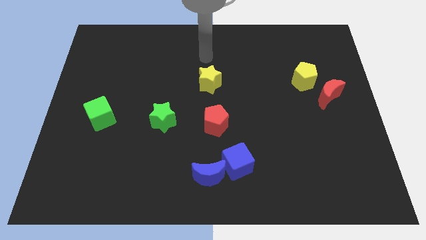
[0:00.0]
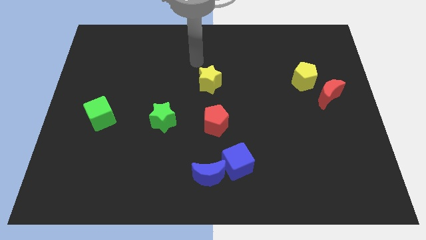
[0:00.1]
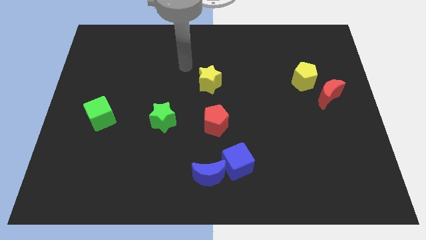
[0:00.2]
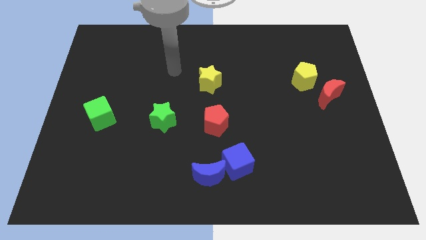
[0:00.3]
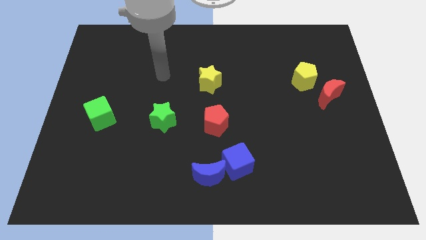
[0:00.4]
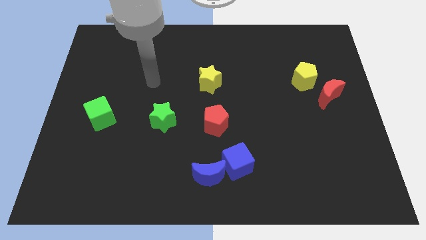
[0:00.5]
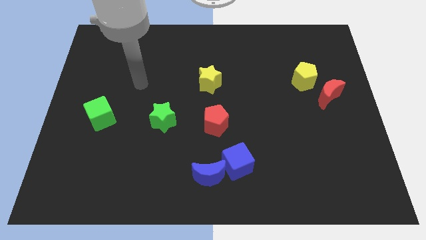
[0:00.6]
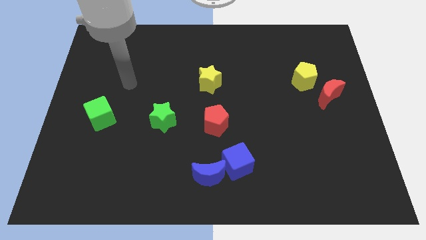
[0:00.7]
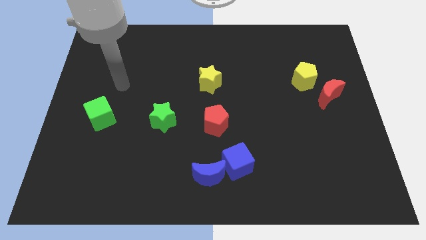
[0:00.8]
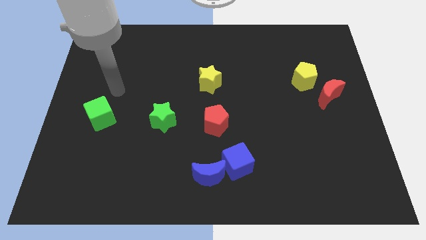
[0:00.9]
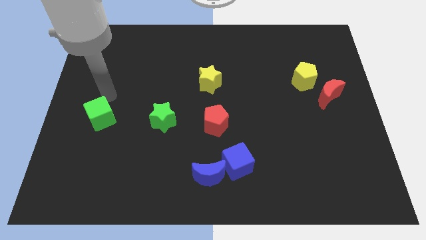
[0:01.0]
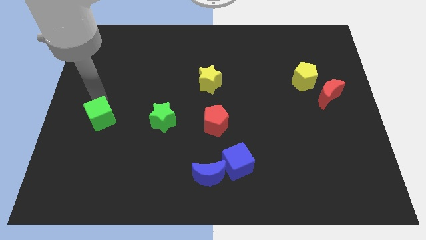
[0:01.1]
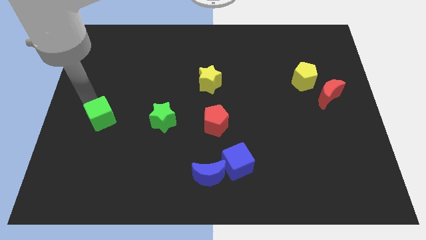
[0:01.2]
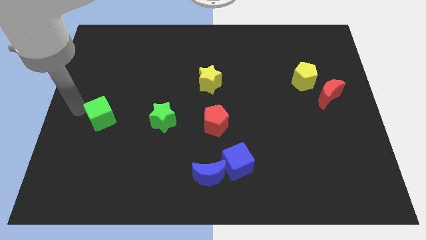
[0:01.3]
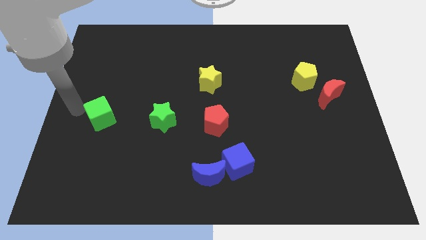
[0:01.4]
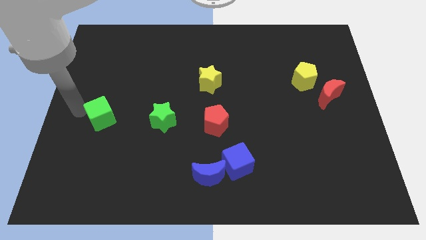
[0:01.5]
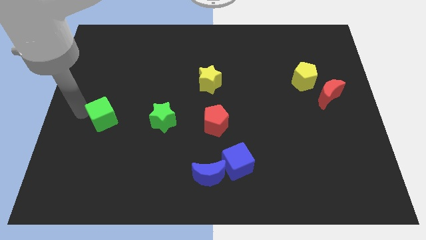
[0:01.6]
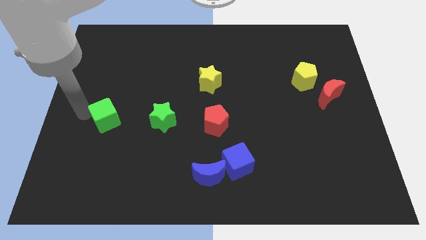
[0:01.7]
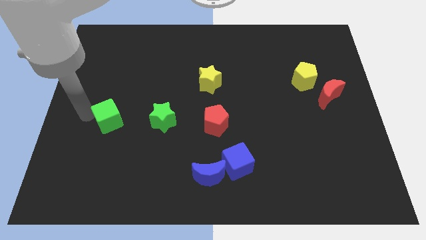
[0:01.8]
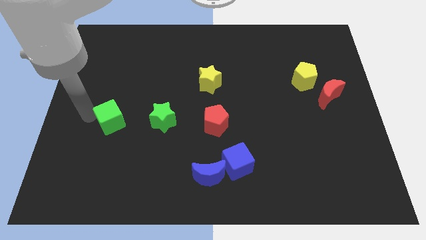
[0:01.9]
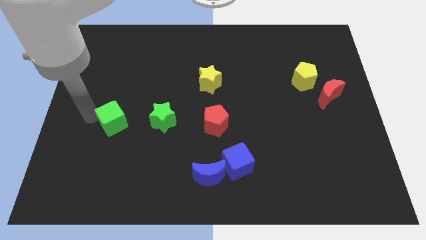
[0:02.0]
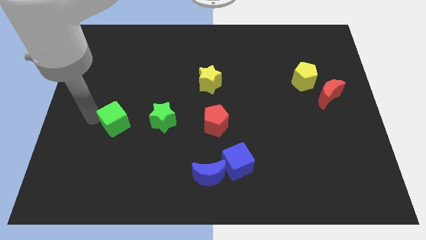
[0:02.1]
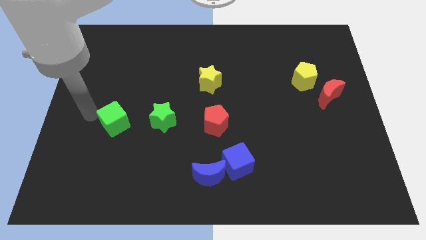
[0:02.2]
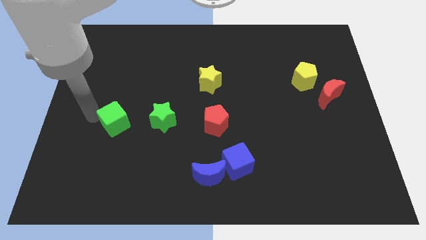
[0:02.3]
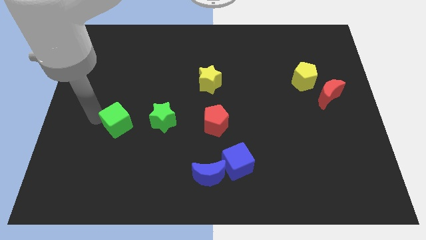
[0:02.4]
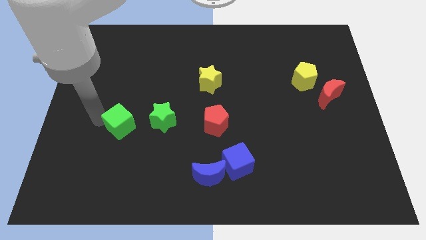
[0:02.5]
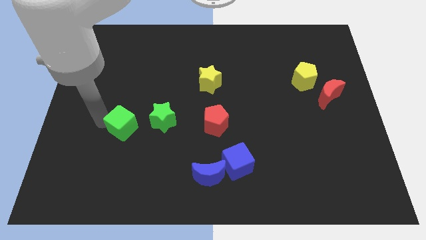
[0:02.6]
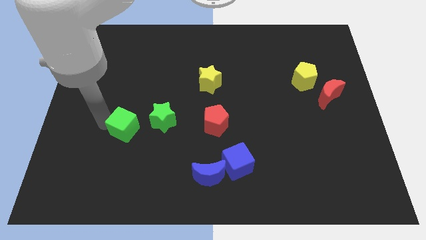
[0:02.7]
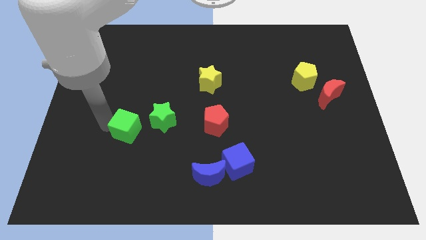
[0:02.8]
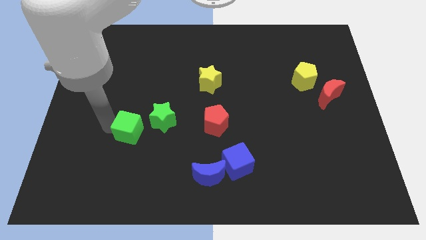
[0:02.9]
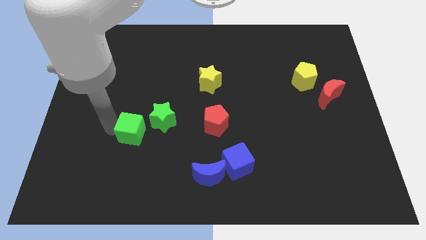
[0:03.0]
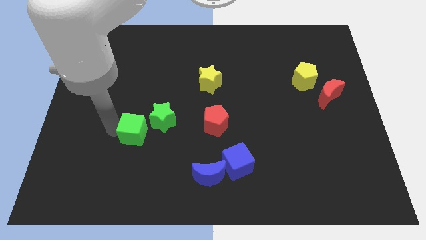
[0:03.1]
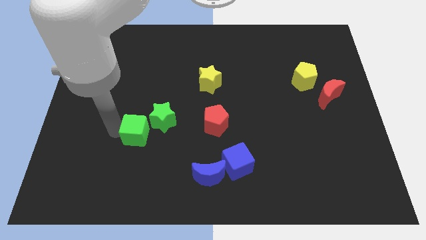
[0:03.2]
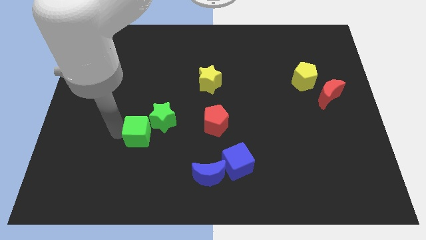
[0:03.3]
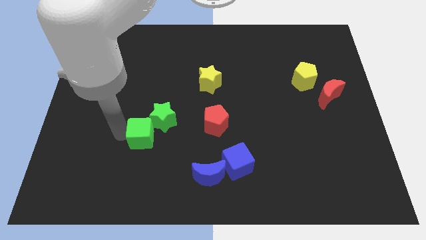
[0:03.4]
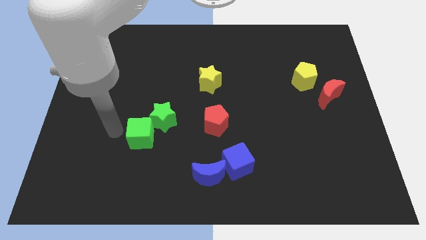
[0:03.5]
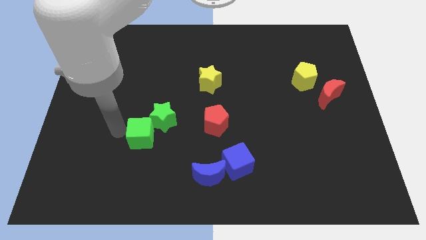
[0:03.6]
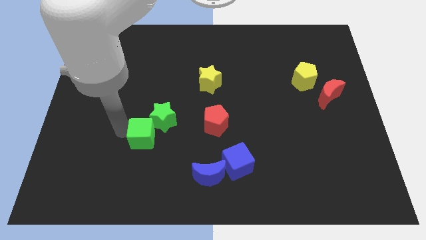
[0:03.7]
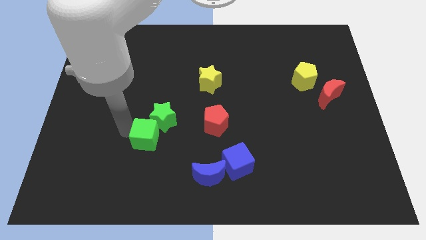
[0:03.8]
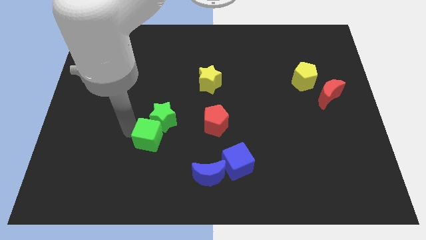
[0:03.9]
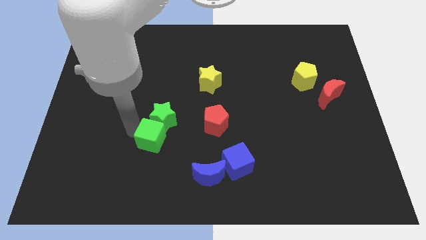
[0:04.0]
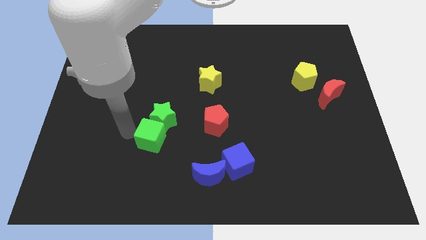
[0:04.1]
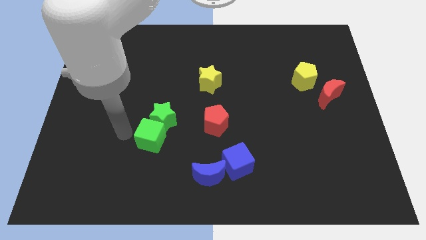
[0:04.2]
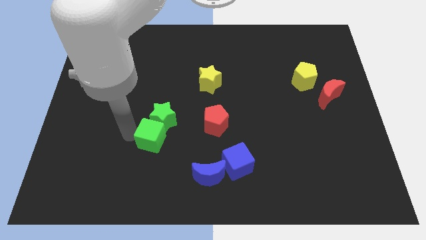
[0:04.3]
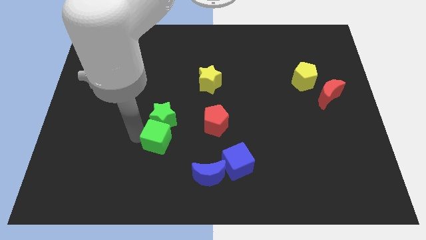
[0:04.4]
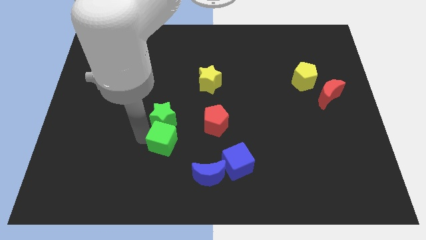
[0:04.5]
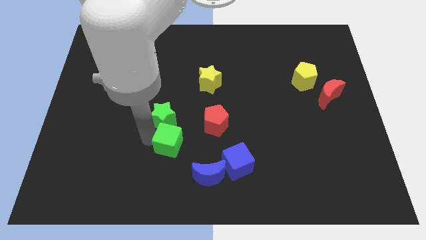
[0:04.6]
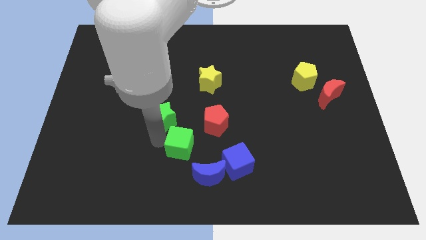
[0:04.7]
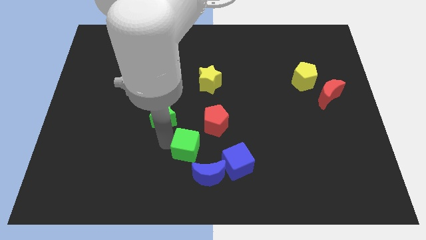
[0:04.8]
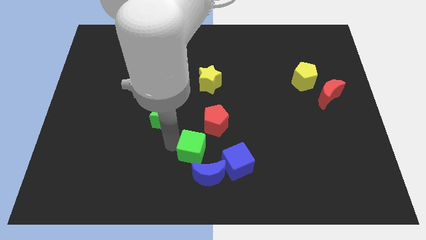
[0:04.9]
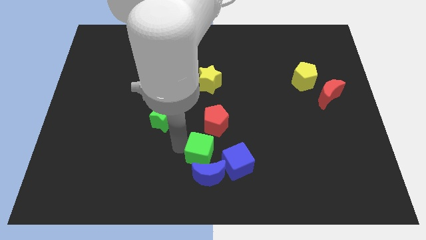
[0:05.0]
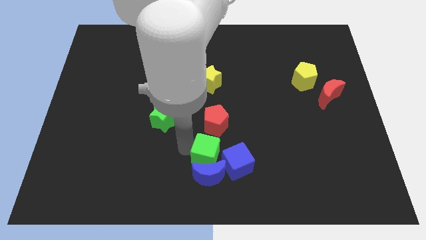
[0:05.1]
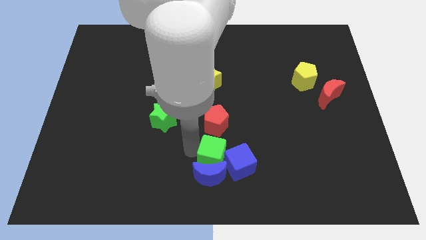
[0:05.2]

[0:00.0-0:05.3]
put the green cube close to the blue cube

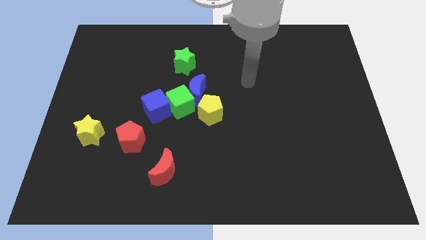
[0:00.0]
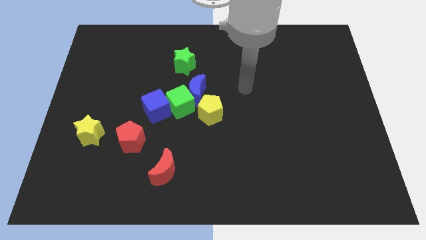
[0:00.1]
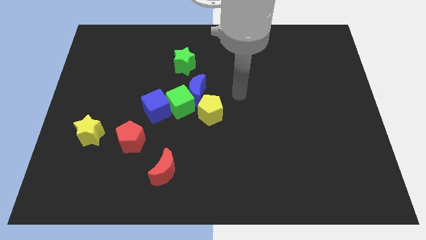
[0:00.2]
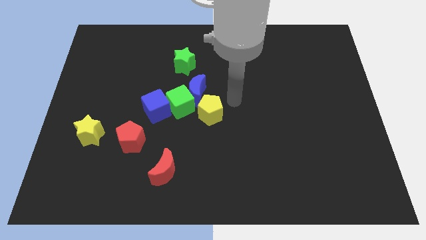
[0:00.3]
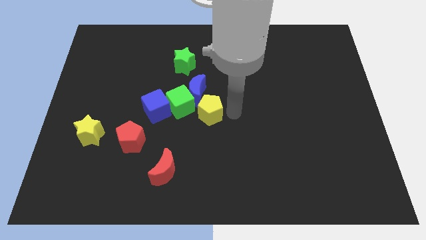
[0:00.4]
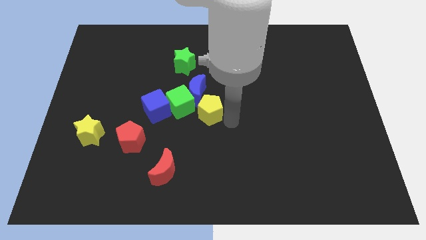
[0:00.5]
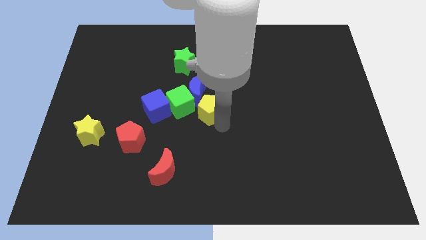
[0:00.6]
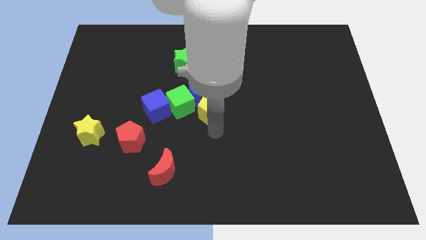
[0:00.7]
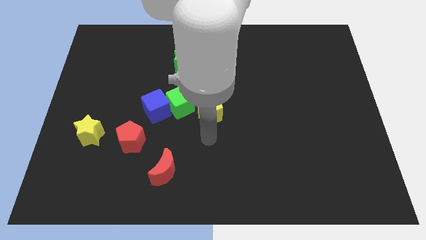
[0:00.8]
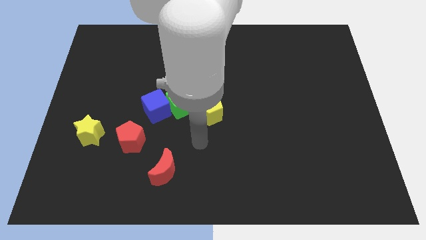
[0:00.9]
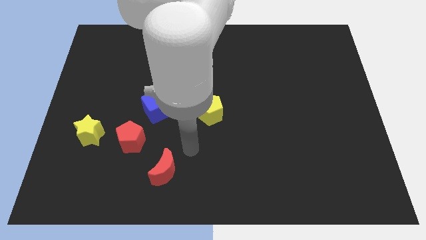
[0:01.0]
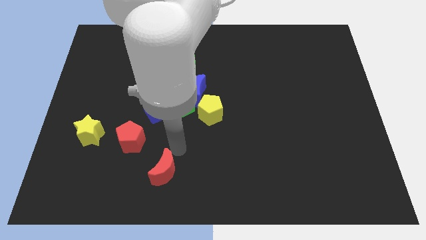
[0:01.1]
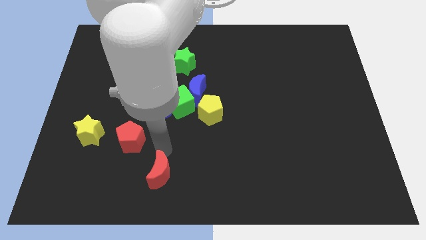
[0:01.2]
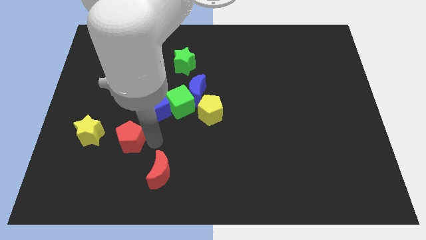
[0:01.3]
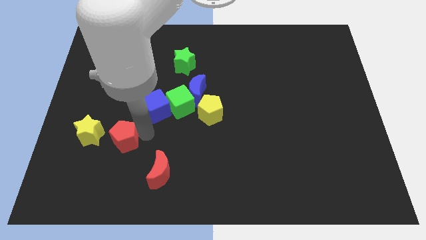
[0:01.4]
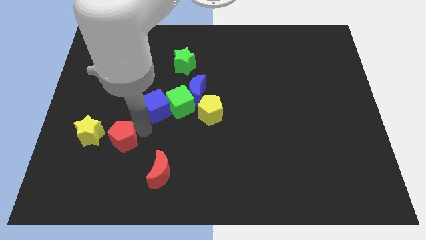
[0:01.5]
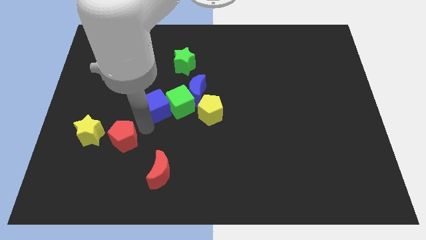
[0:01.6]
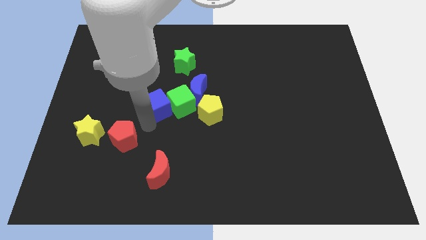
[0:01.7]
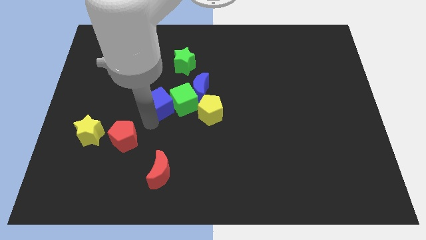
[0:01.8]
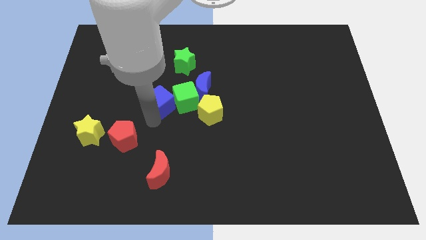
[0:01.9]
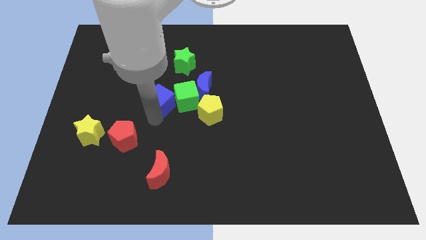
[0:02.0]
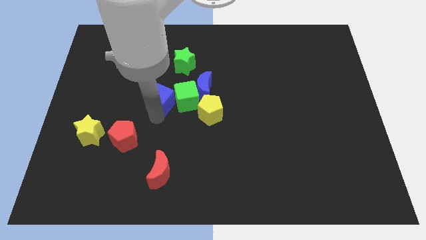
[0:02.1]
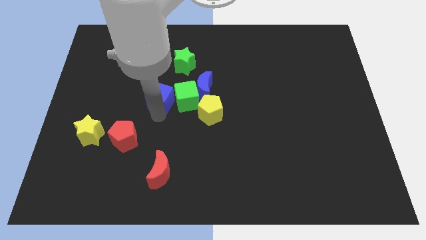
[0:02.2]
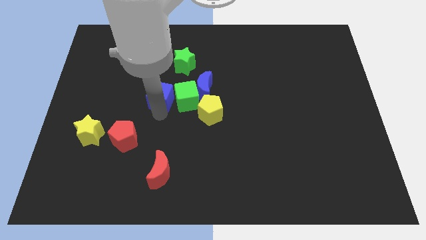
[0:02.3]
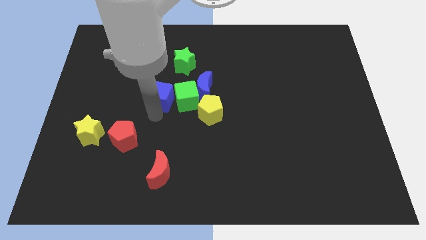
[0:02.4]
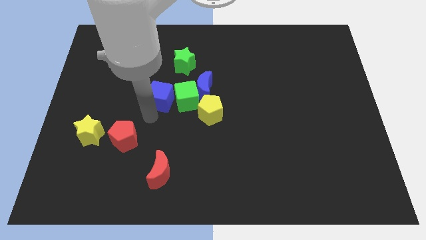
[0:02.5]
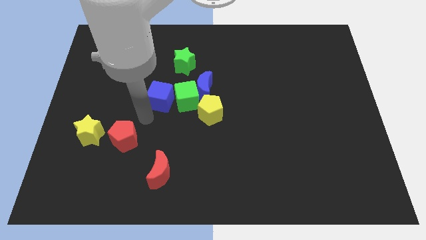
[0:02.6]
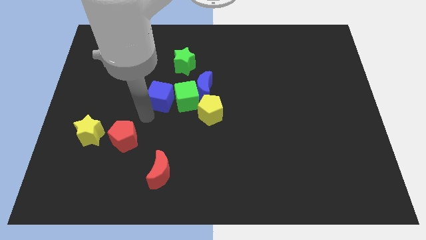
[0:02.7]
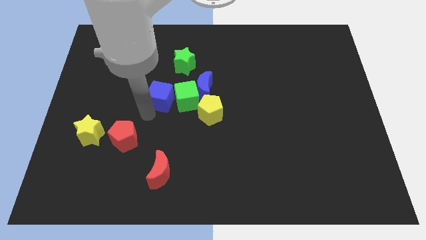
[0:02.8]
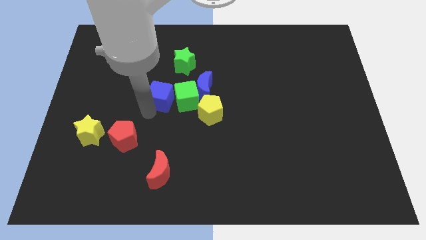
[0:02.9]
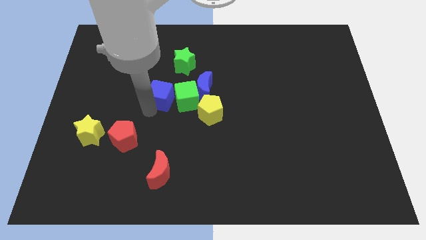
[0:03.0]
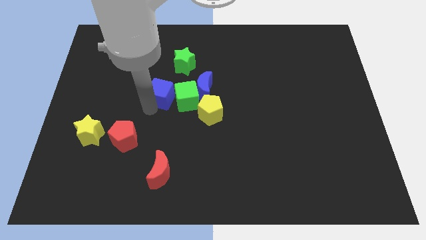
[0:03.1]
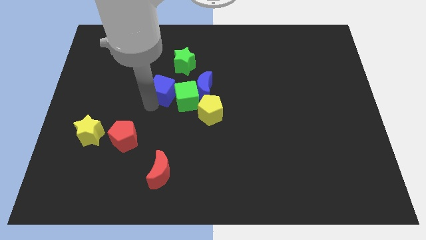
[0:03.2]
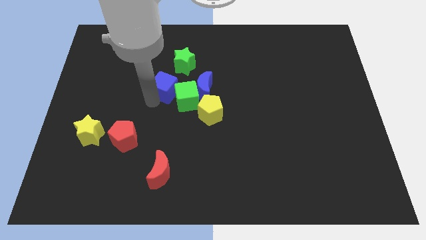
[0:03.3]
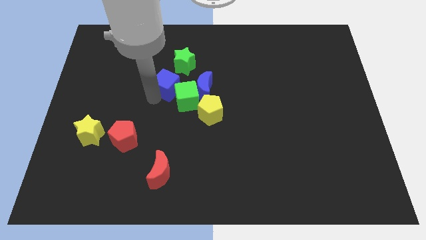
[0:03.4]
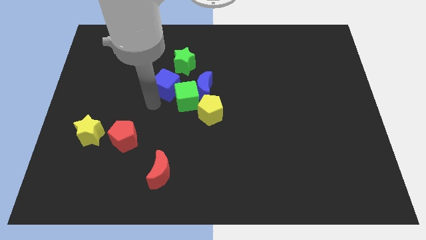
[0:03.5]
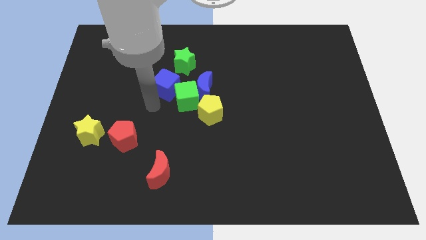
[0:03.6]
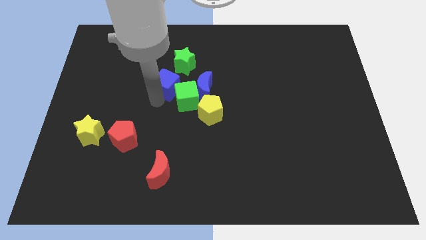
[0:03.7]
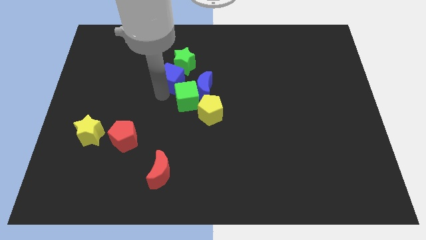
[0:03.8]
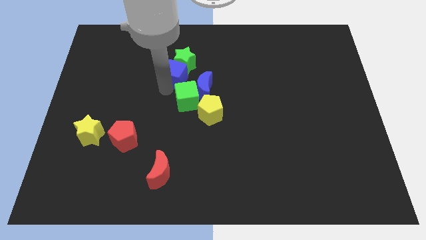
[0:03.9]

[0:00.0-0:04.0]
put the blue cube to the green star
